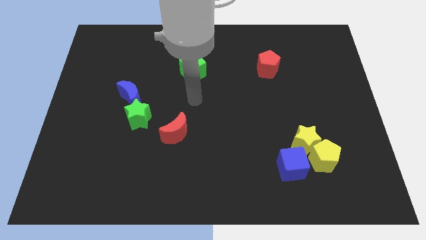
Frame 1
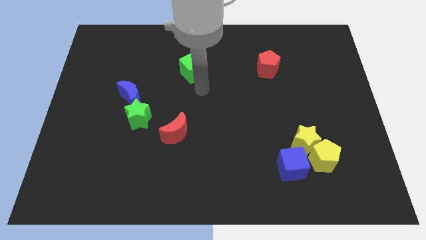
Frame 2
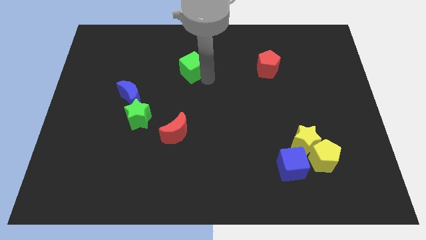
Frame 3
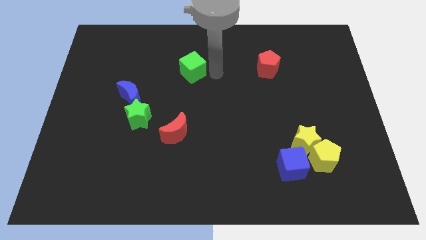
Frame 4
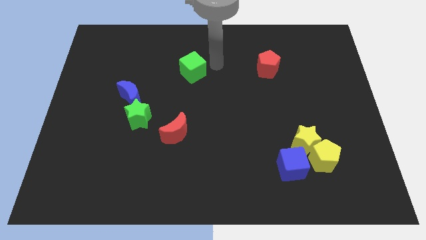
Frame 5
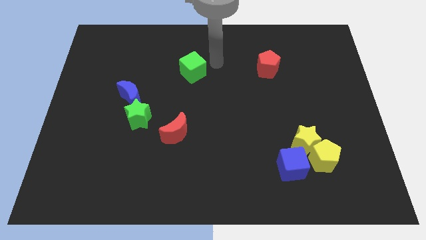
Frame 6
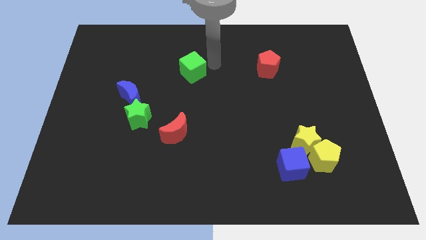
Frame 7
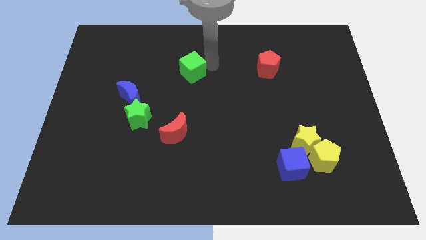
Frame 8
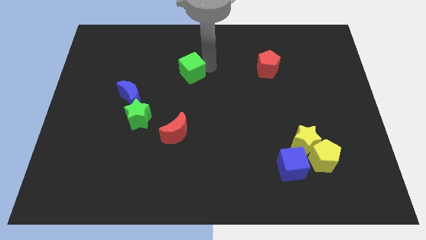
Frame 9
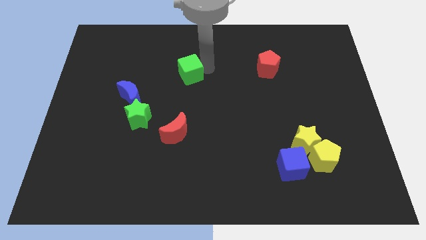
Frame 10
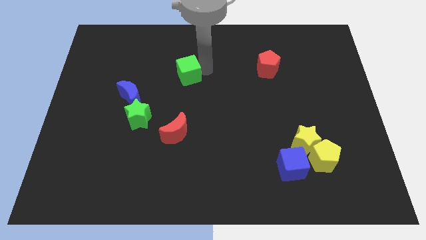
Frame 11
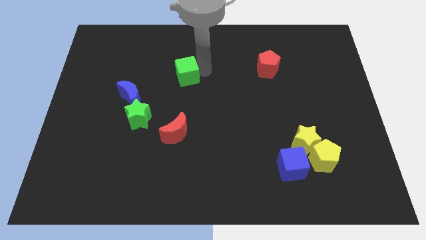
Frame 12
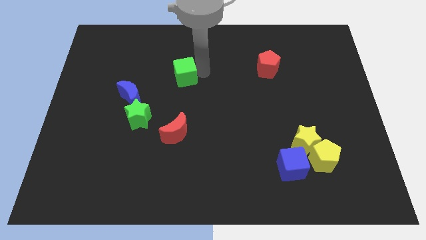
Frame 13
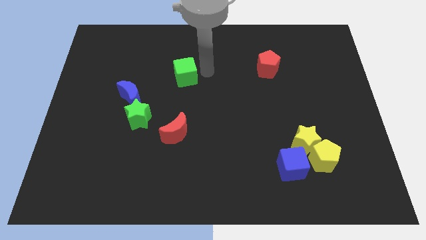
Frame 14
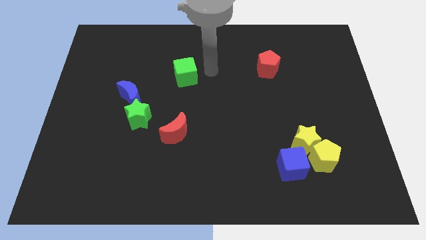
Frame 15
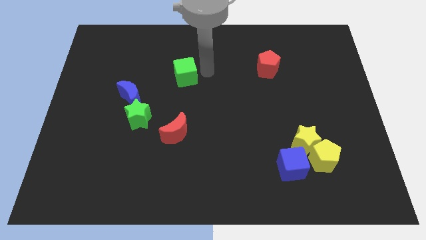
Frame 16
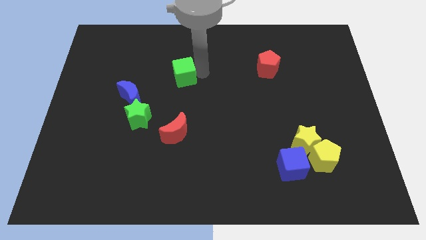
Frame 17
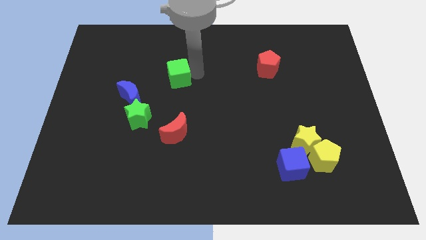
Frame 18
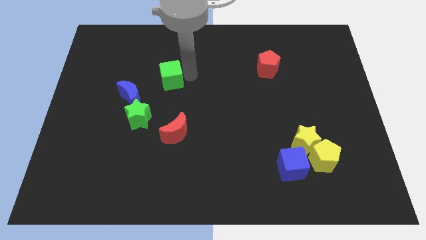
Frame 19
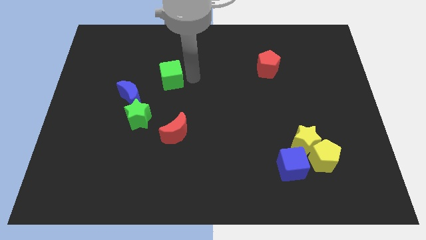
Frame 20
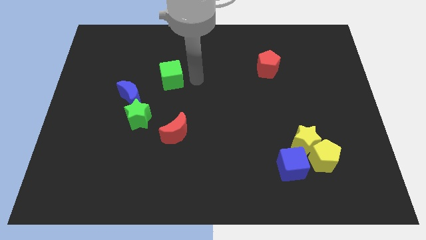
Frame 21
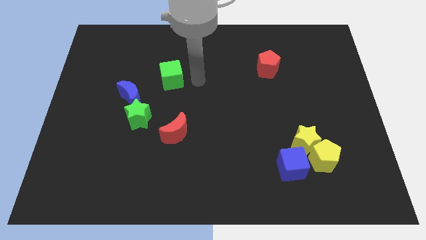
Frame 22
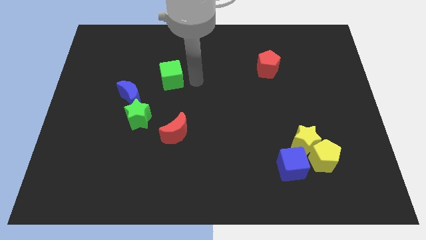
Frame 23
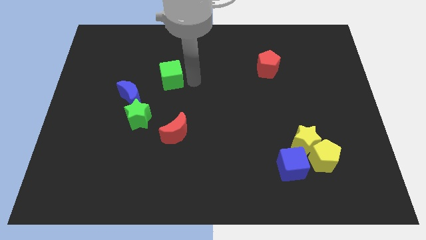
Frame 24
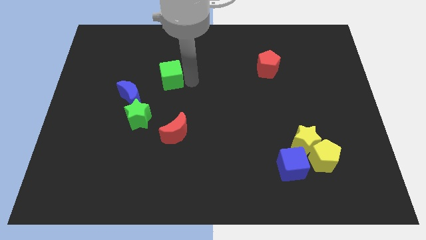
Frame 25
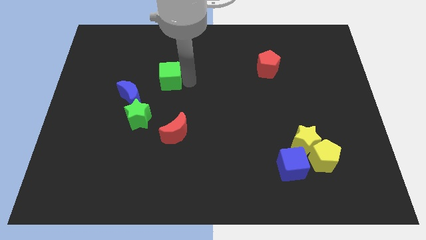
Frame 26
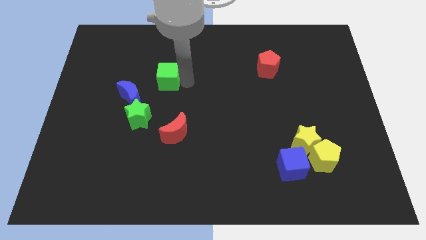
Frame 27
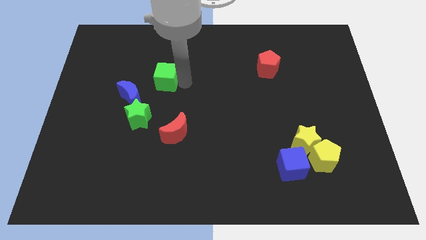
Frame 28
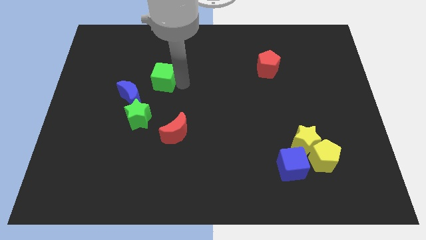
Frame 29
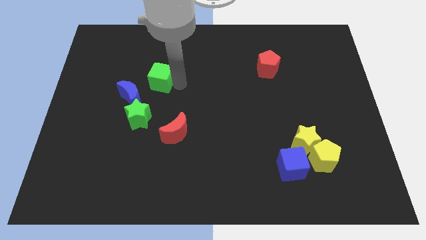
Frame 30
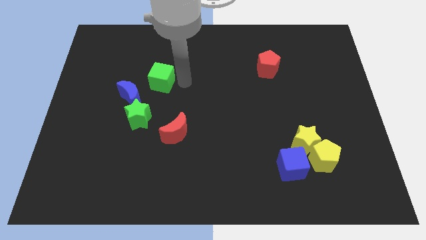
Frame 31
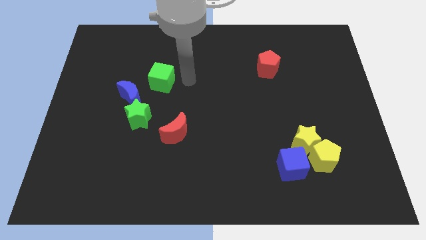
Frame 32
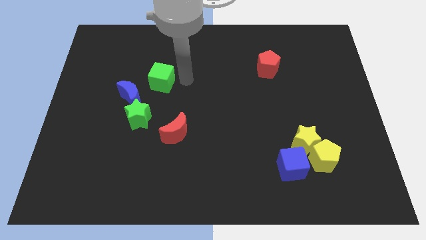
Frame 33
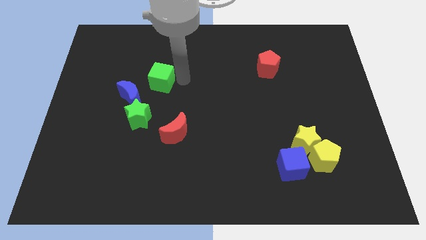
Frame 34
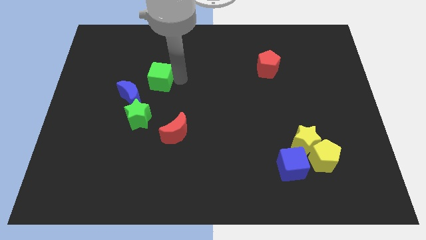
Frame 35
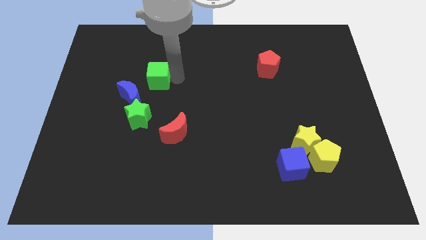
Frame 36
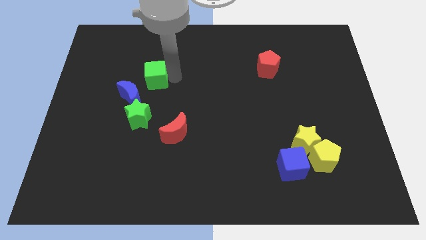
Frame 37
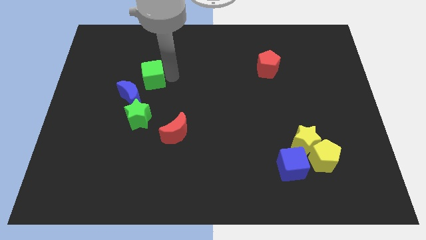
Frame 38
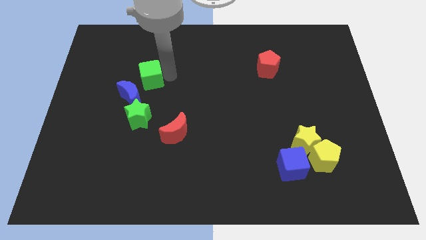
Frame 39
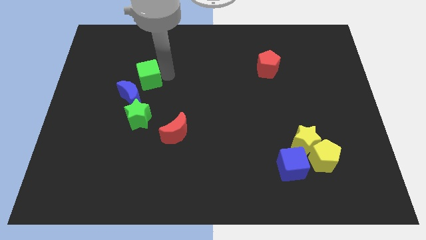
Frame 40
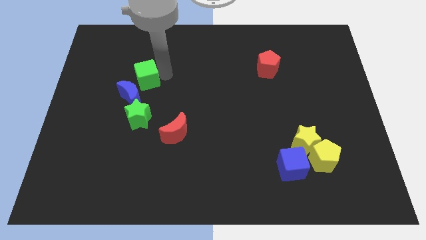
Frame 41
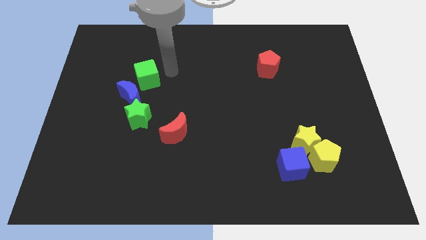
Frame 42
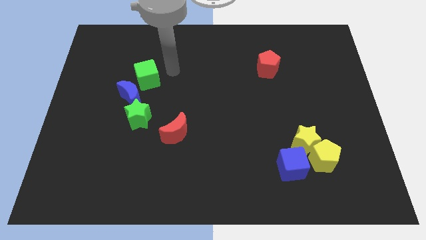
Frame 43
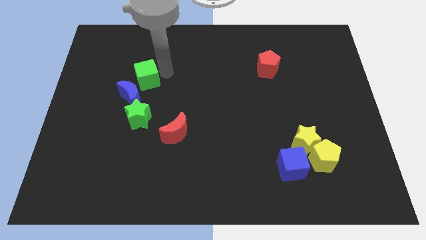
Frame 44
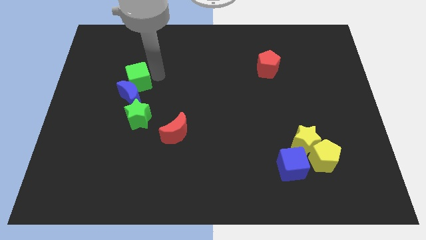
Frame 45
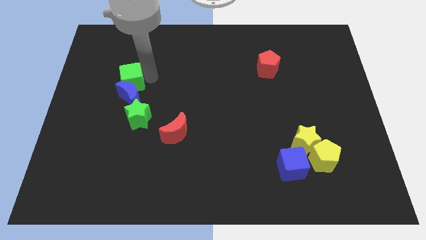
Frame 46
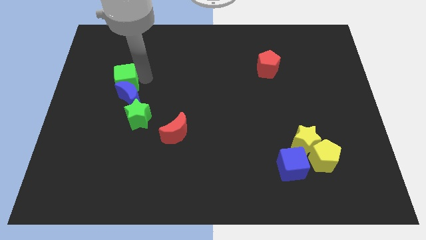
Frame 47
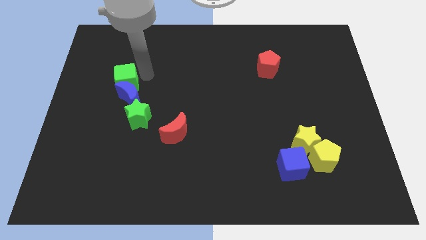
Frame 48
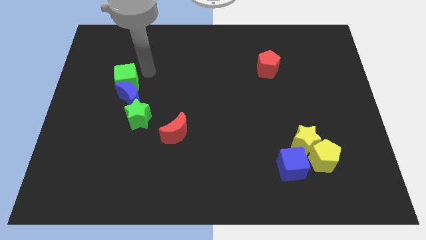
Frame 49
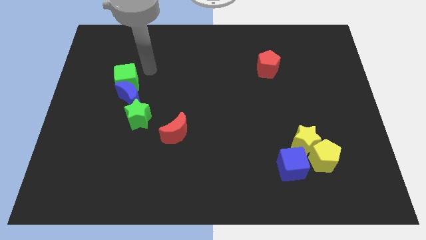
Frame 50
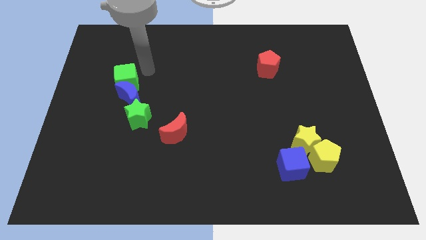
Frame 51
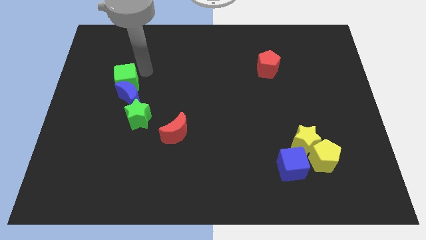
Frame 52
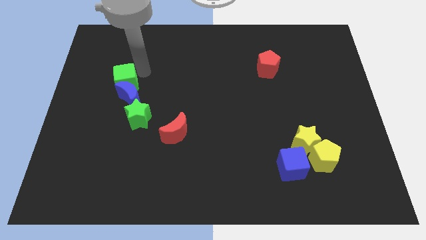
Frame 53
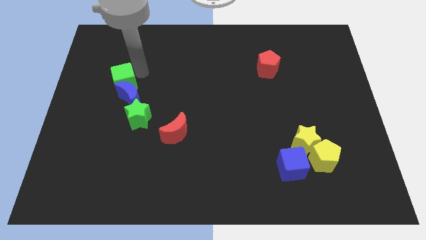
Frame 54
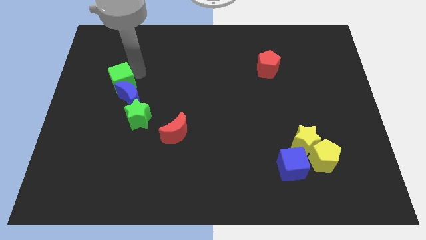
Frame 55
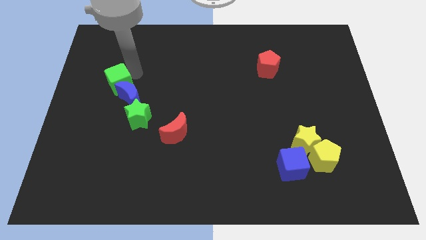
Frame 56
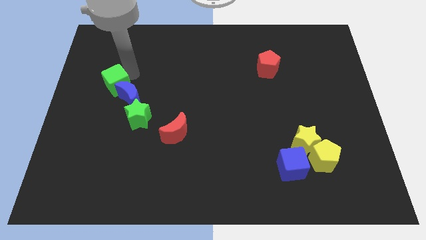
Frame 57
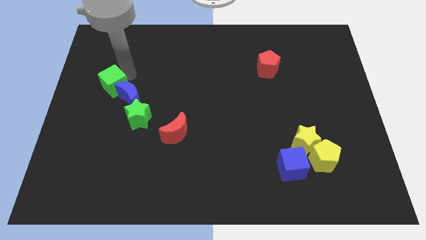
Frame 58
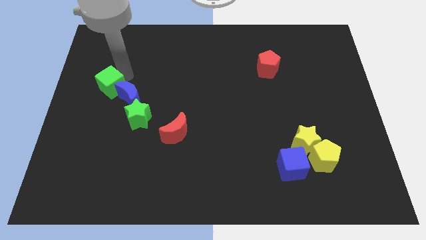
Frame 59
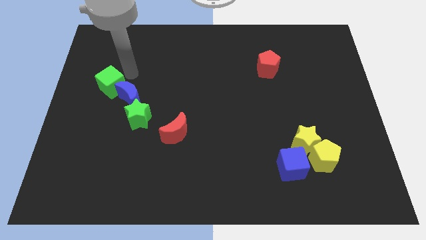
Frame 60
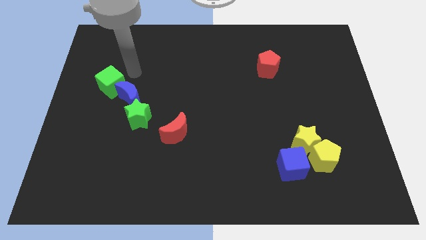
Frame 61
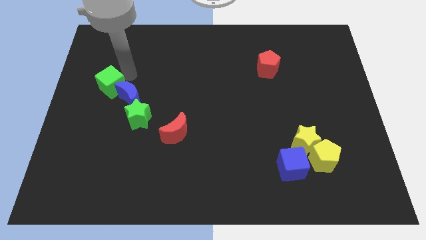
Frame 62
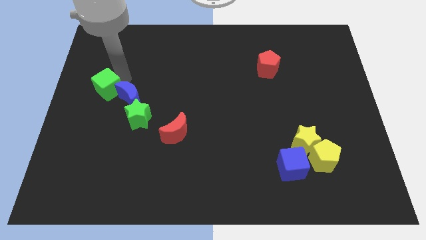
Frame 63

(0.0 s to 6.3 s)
move the green cube to the center left
